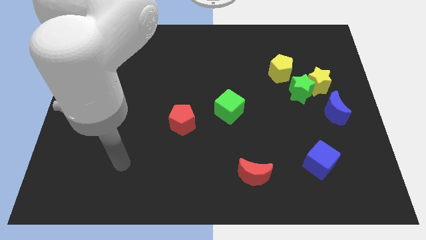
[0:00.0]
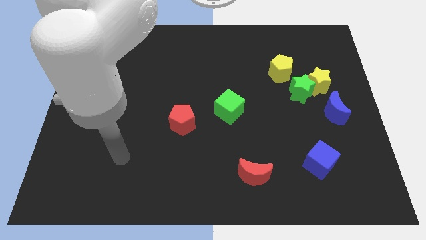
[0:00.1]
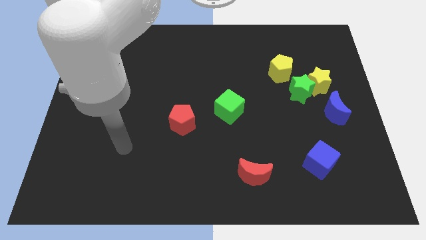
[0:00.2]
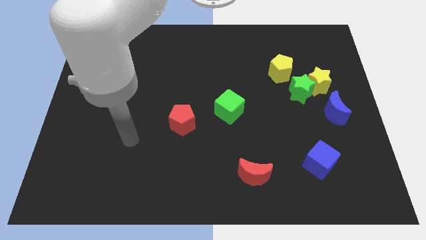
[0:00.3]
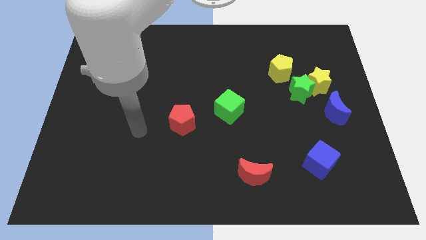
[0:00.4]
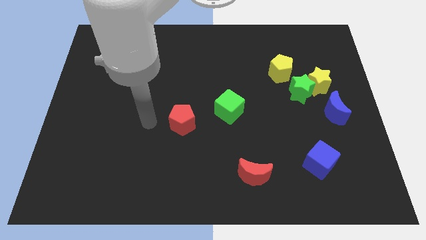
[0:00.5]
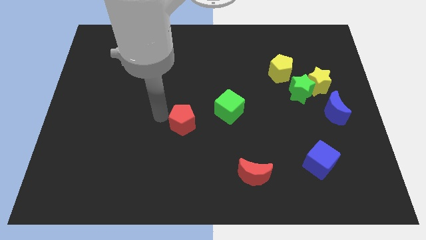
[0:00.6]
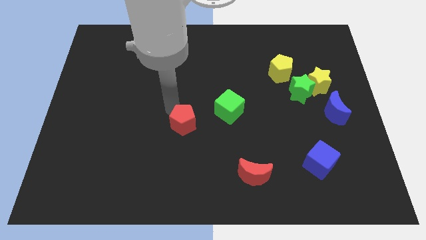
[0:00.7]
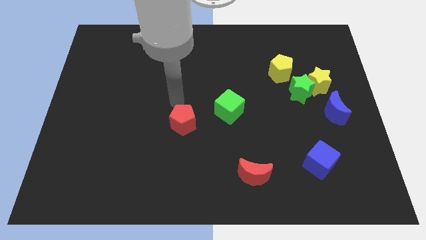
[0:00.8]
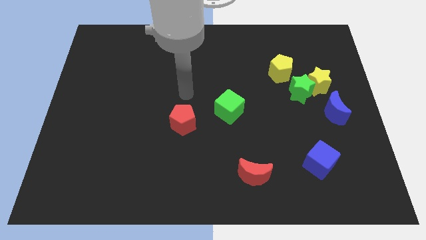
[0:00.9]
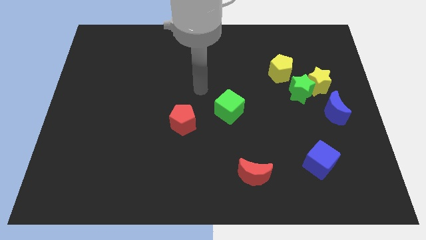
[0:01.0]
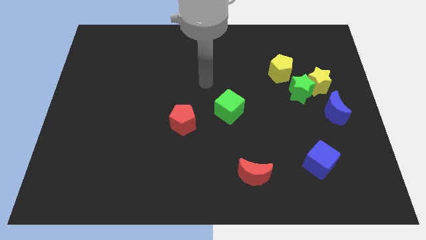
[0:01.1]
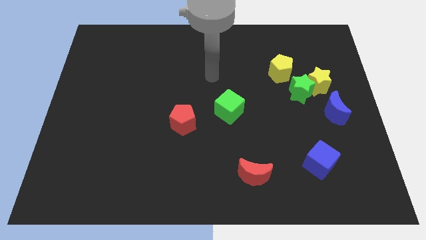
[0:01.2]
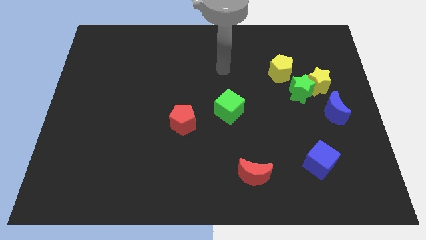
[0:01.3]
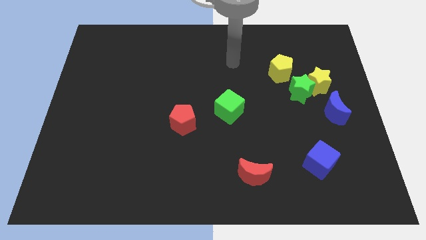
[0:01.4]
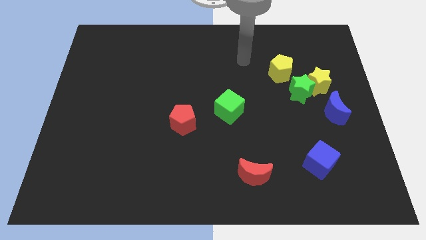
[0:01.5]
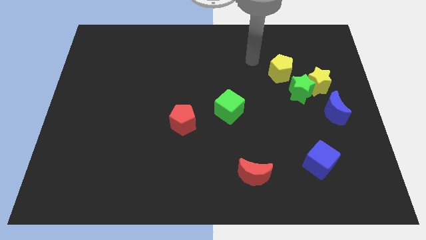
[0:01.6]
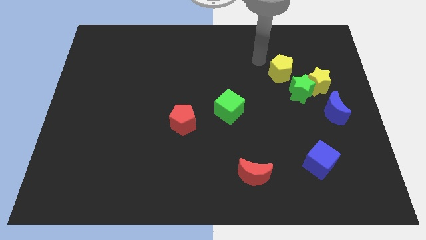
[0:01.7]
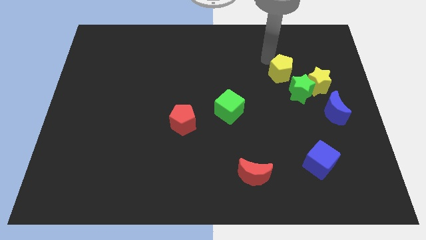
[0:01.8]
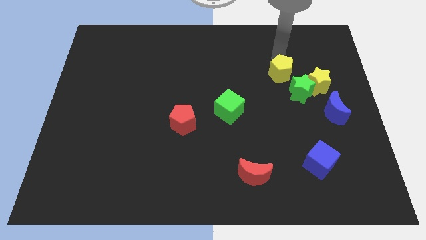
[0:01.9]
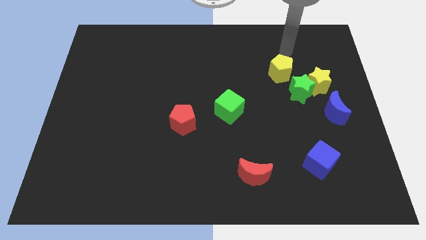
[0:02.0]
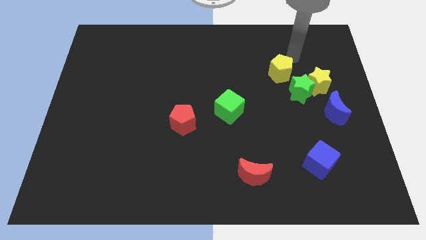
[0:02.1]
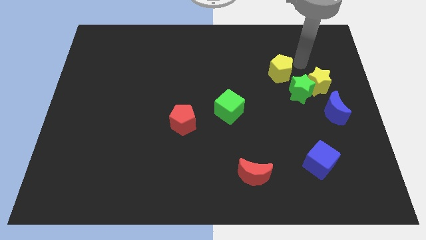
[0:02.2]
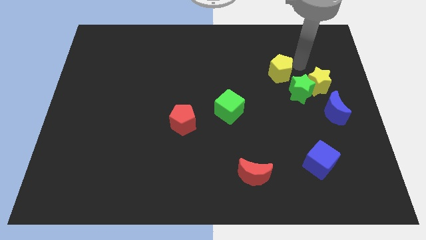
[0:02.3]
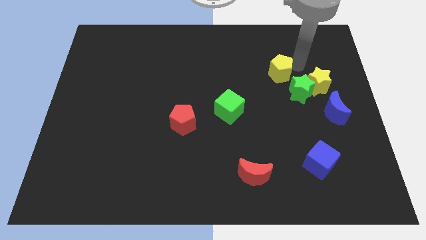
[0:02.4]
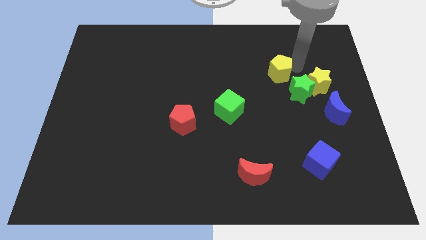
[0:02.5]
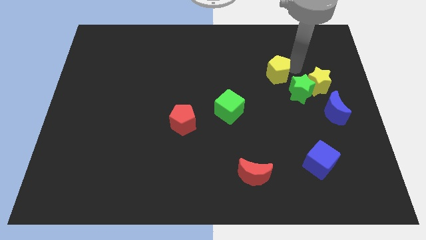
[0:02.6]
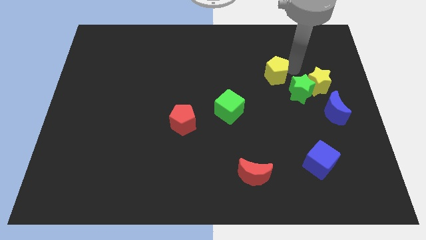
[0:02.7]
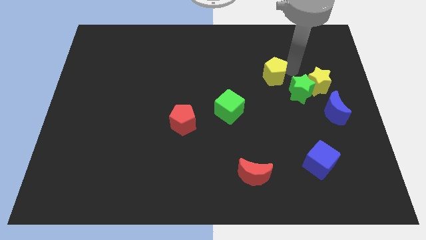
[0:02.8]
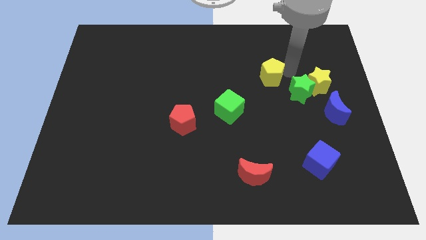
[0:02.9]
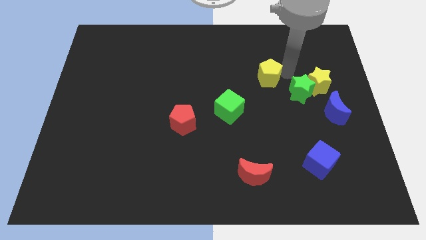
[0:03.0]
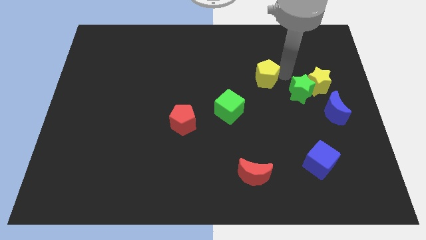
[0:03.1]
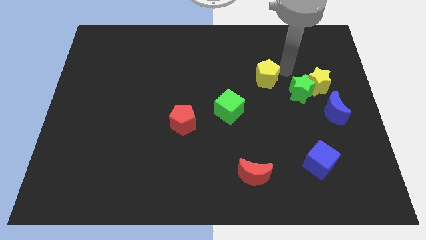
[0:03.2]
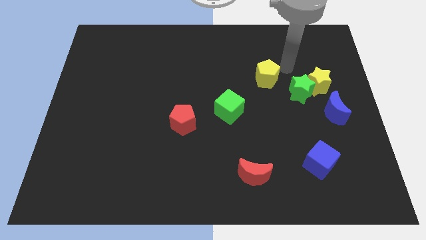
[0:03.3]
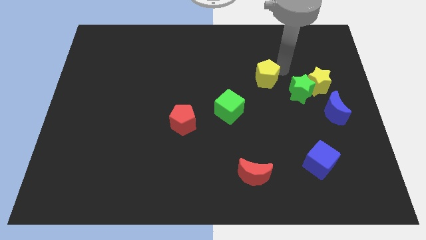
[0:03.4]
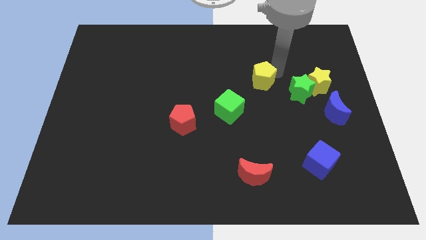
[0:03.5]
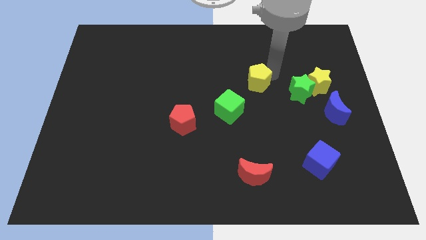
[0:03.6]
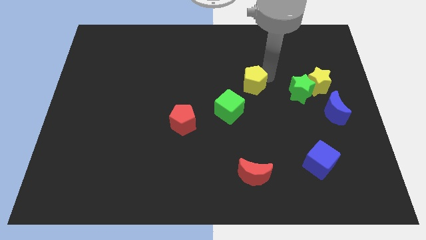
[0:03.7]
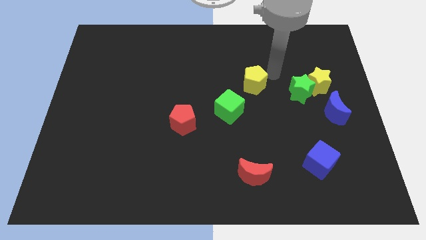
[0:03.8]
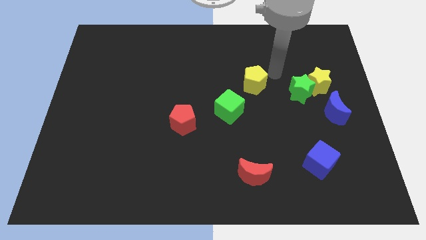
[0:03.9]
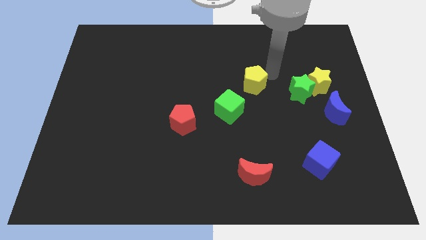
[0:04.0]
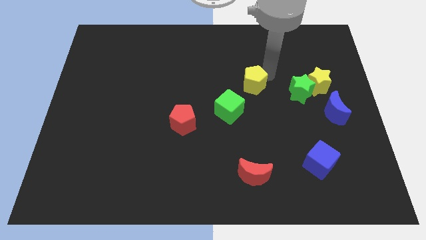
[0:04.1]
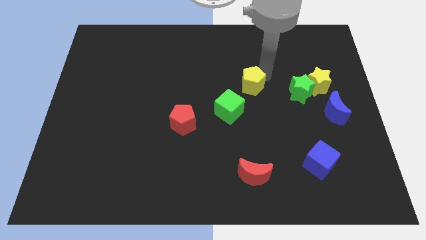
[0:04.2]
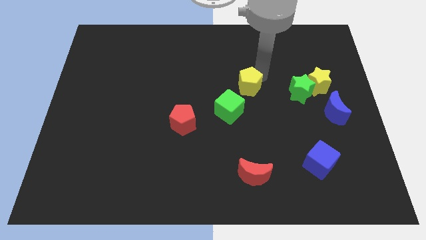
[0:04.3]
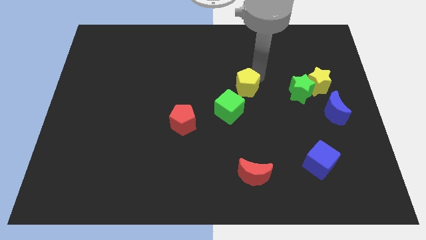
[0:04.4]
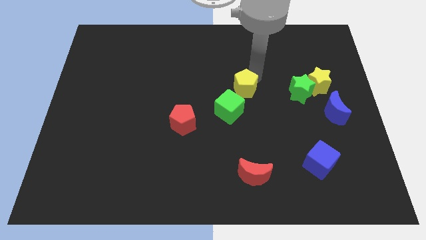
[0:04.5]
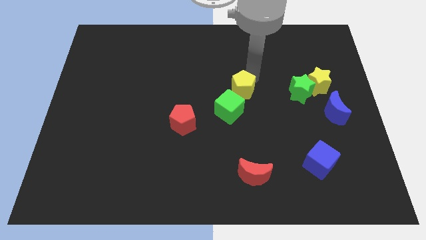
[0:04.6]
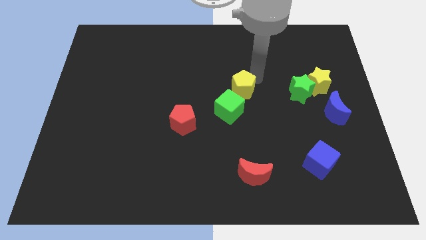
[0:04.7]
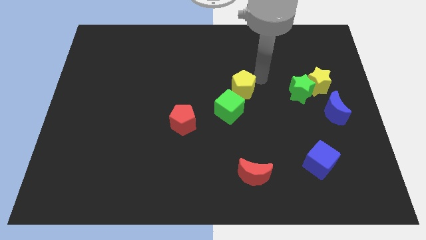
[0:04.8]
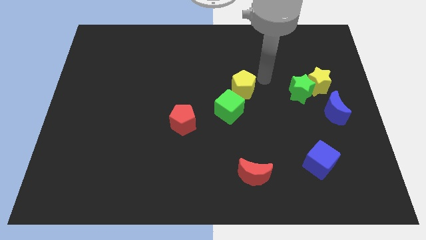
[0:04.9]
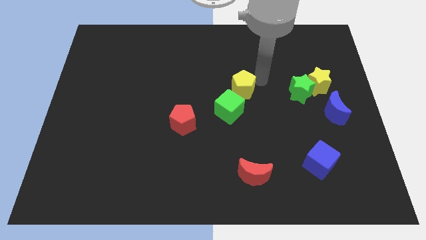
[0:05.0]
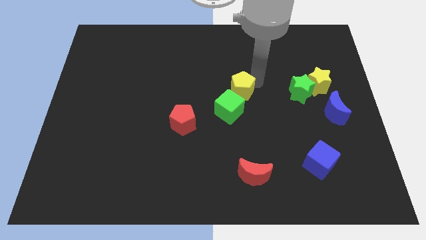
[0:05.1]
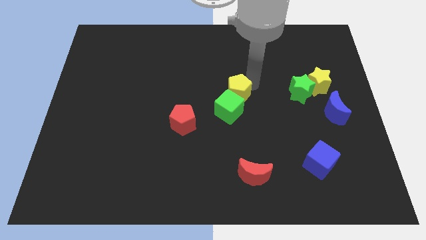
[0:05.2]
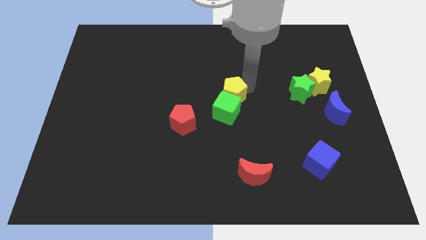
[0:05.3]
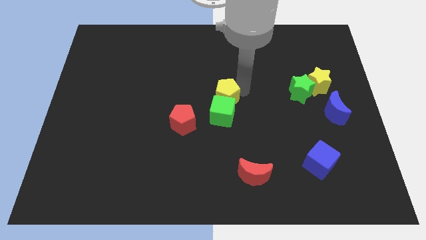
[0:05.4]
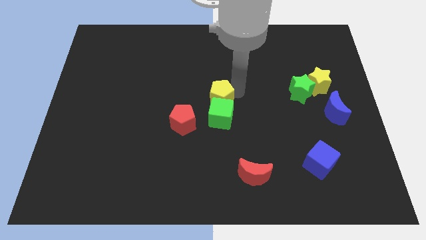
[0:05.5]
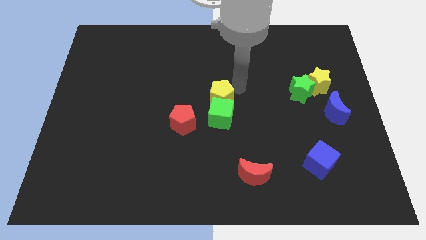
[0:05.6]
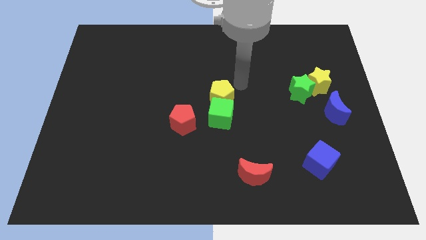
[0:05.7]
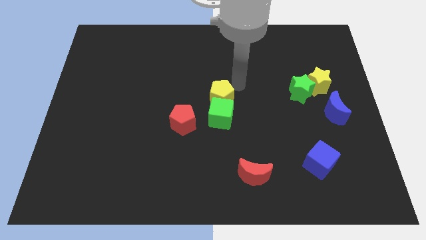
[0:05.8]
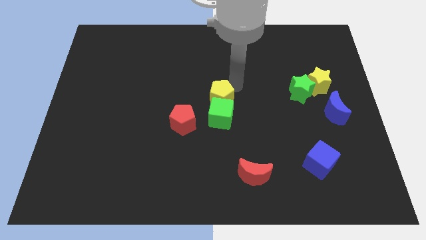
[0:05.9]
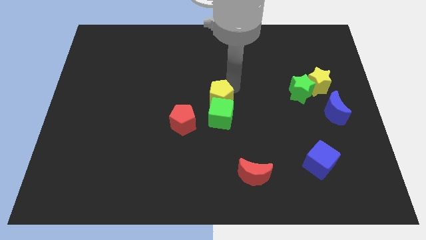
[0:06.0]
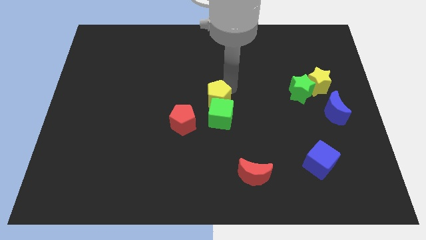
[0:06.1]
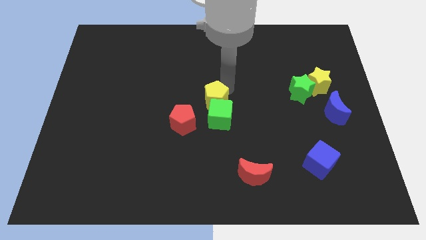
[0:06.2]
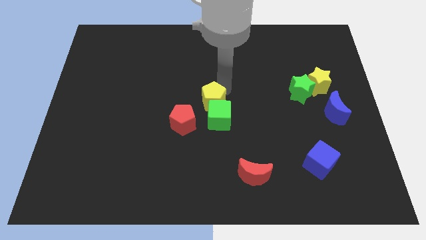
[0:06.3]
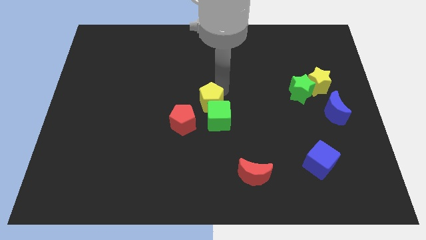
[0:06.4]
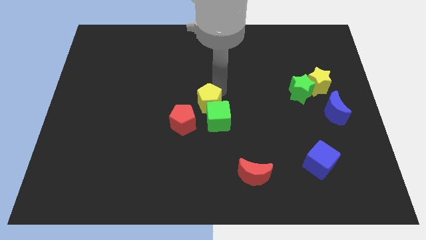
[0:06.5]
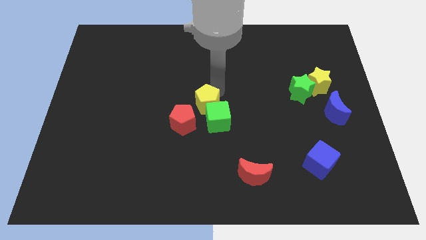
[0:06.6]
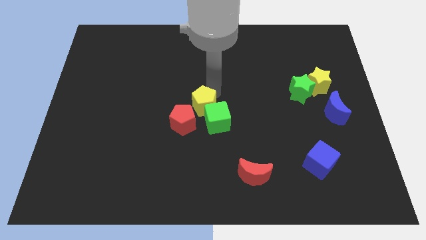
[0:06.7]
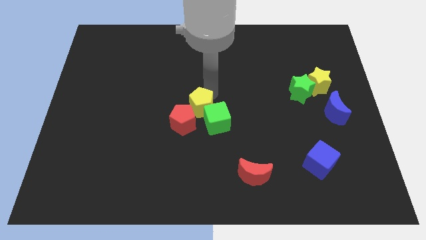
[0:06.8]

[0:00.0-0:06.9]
push the yellow pentagon close to the red pentagon

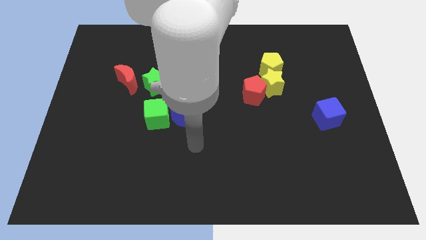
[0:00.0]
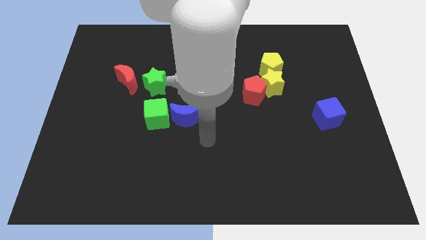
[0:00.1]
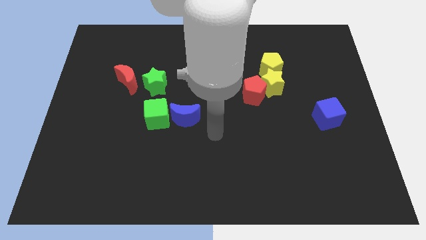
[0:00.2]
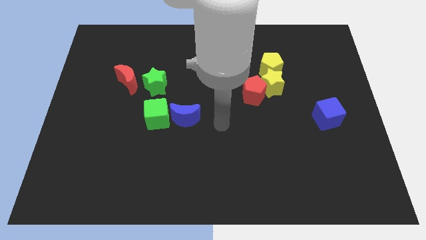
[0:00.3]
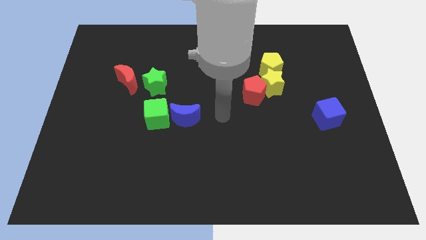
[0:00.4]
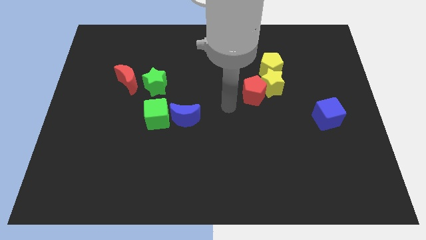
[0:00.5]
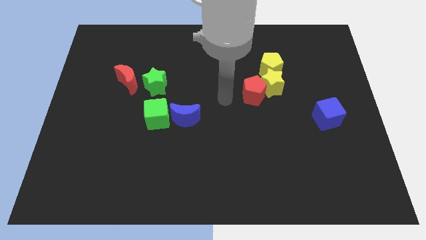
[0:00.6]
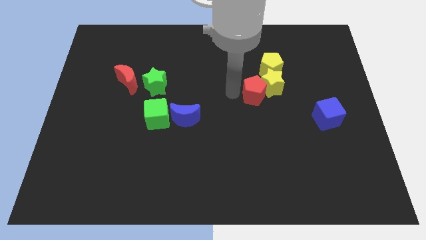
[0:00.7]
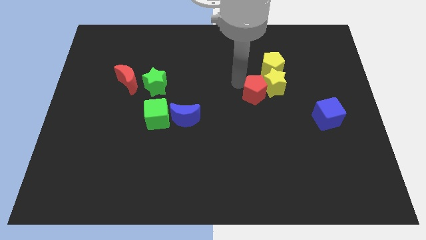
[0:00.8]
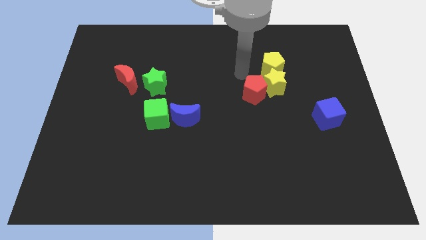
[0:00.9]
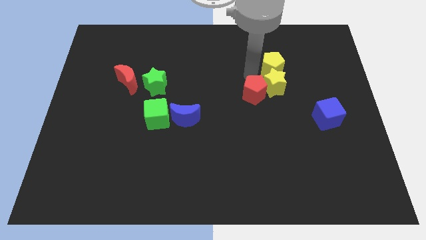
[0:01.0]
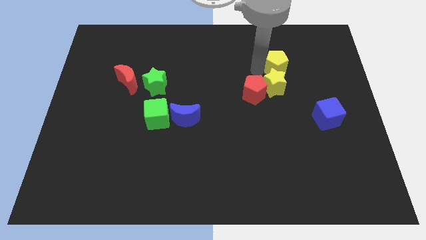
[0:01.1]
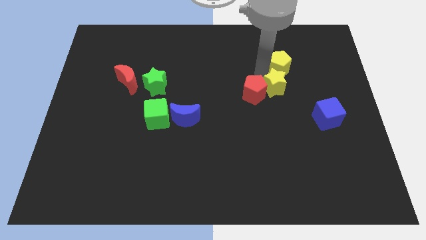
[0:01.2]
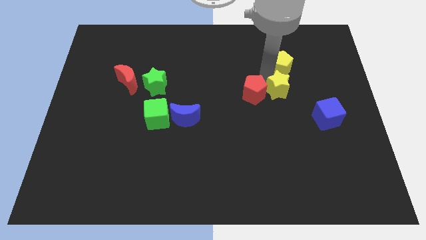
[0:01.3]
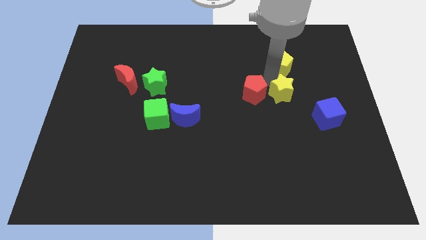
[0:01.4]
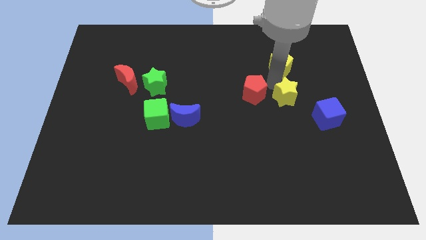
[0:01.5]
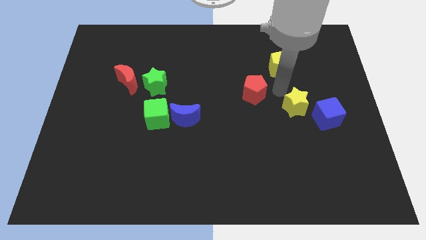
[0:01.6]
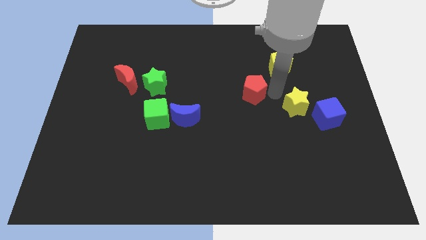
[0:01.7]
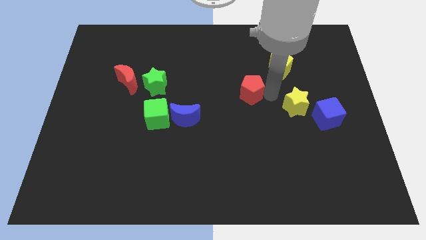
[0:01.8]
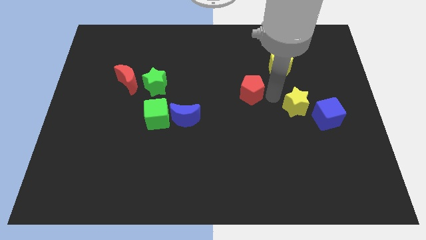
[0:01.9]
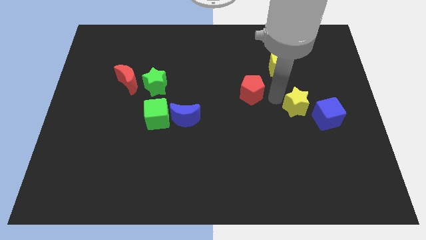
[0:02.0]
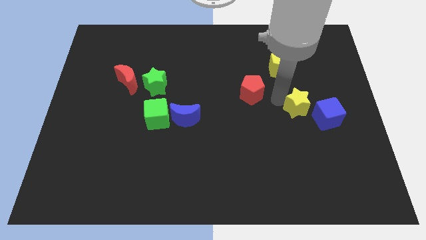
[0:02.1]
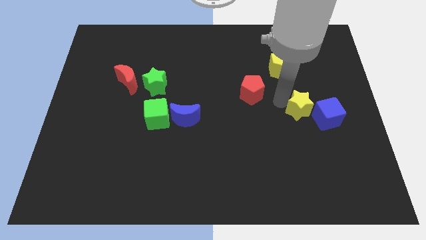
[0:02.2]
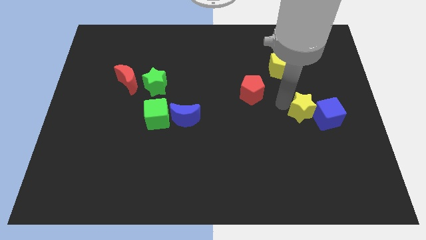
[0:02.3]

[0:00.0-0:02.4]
slide the yellow star next to the blue cube
